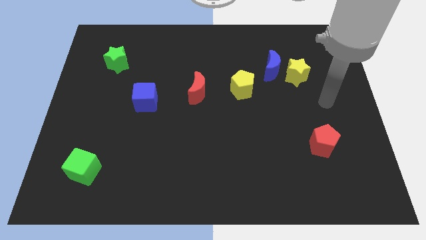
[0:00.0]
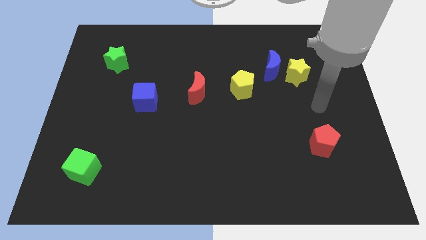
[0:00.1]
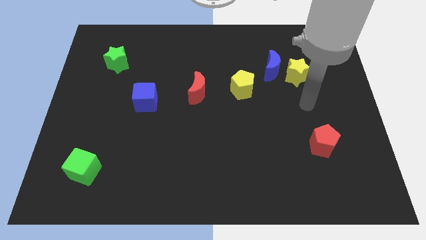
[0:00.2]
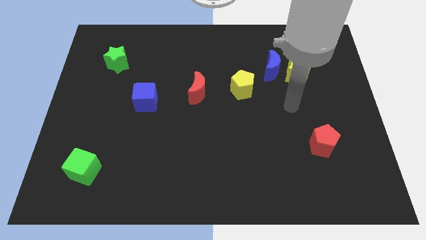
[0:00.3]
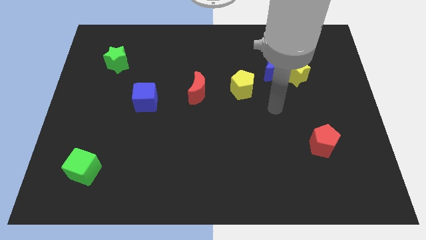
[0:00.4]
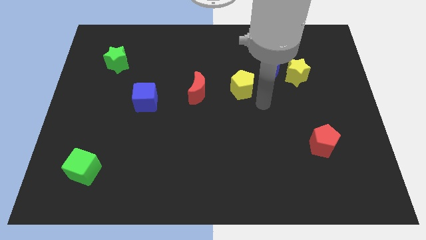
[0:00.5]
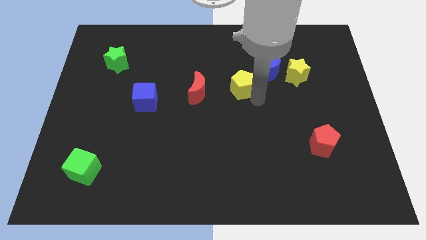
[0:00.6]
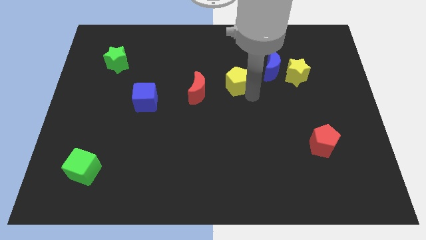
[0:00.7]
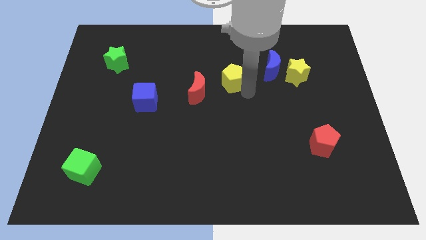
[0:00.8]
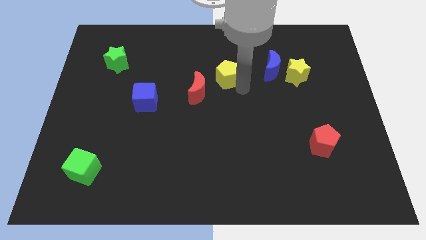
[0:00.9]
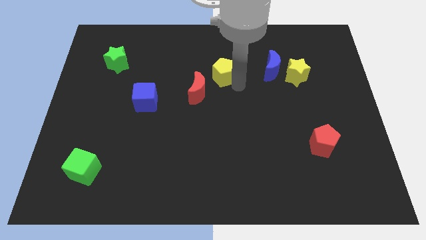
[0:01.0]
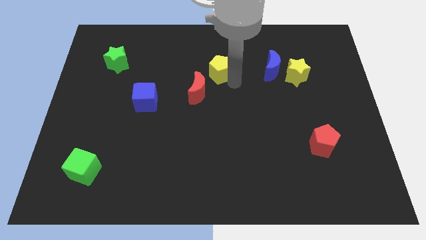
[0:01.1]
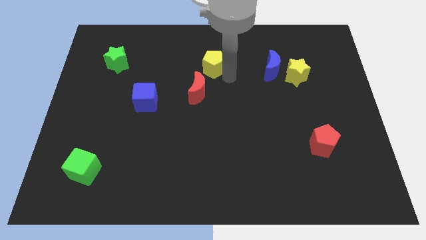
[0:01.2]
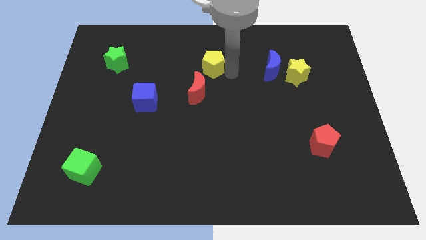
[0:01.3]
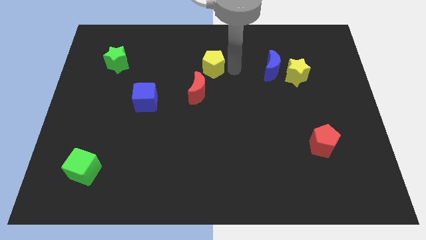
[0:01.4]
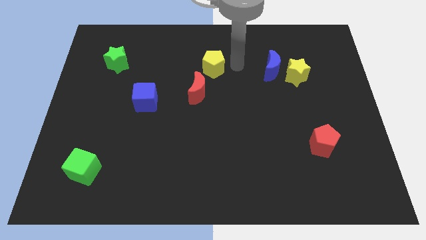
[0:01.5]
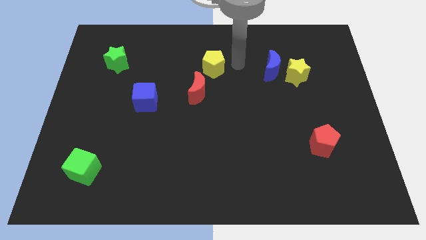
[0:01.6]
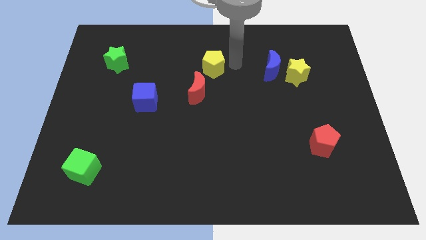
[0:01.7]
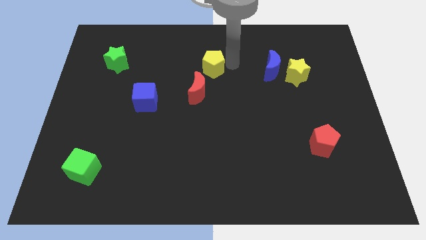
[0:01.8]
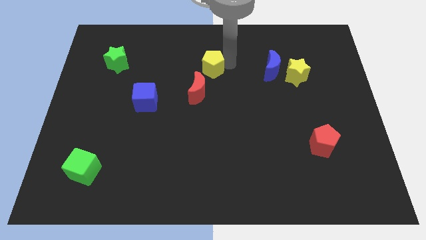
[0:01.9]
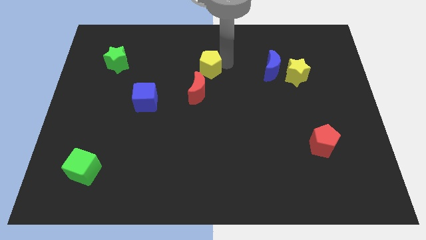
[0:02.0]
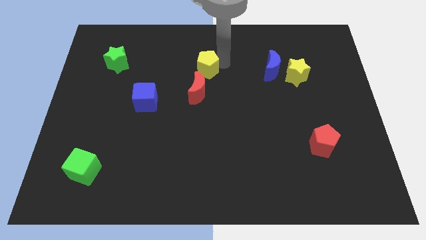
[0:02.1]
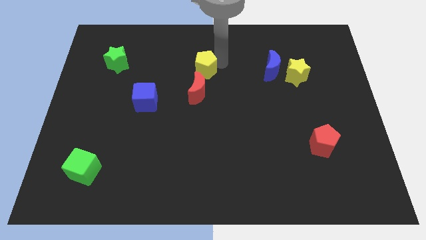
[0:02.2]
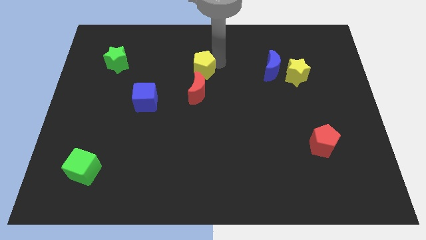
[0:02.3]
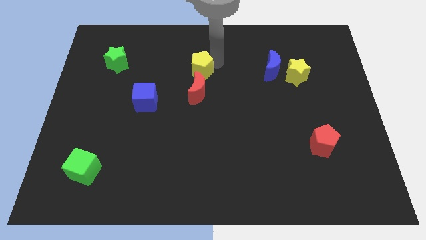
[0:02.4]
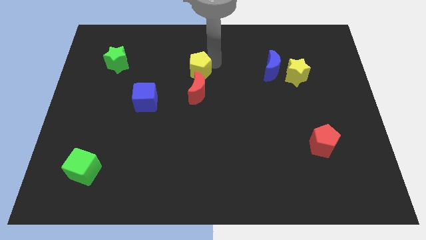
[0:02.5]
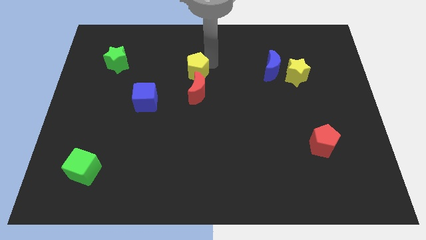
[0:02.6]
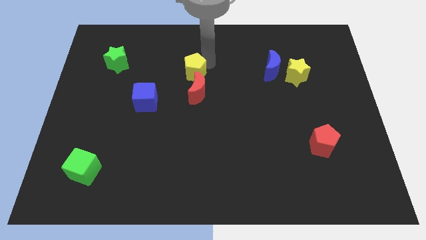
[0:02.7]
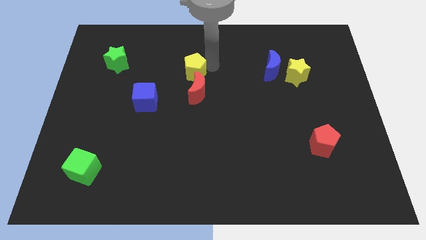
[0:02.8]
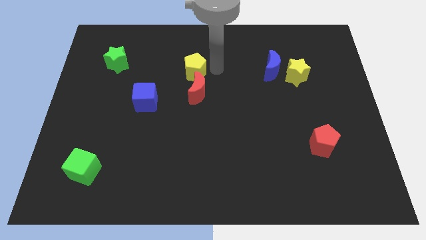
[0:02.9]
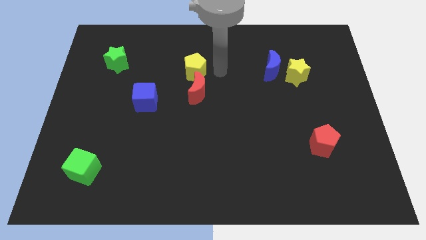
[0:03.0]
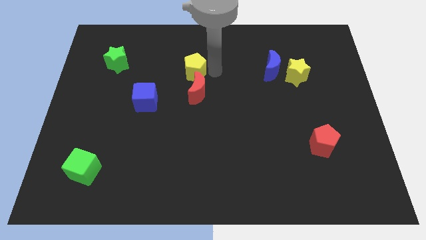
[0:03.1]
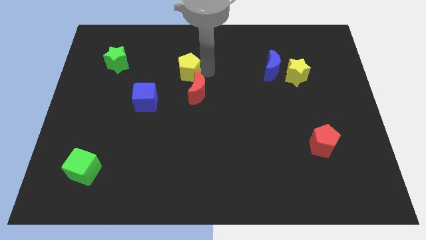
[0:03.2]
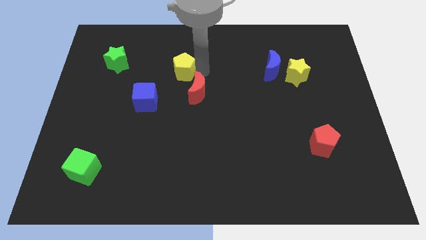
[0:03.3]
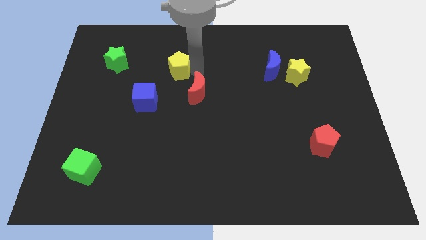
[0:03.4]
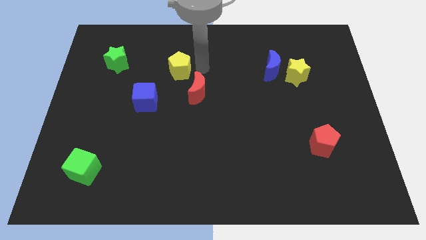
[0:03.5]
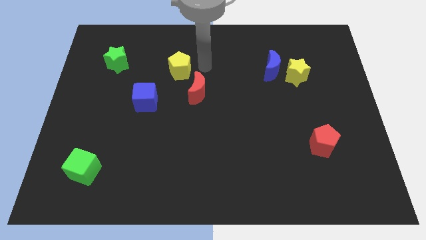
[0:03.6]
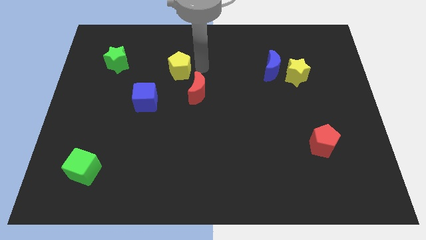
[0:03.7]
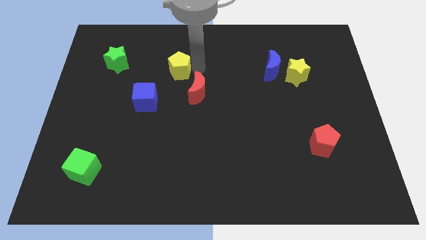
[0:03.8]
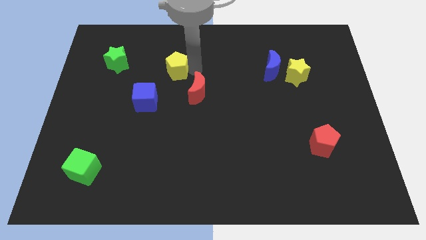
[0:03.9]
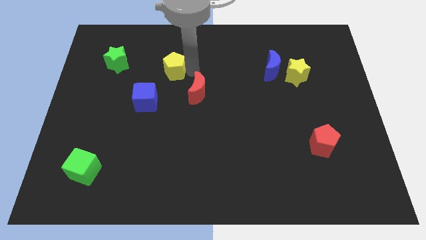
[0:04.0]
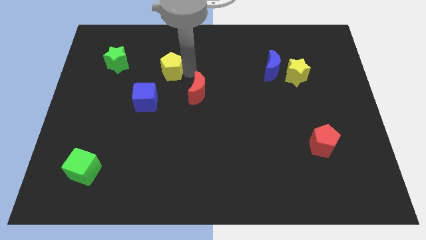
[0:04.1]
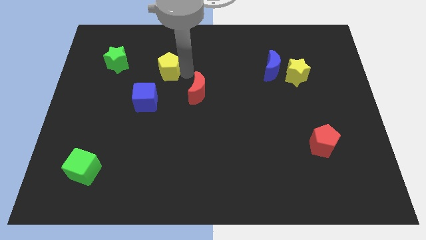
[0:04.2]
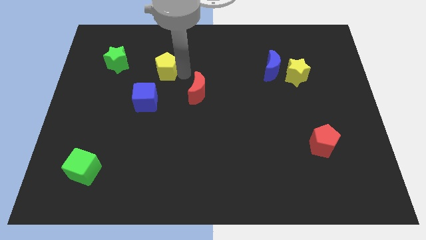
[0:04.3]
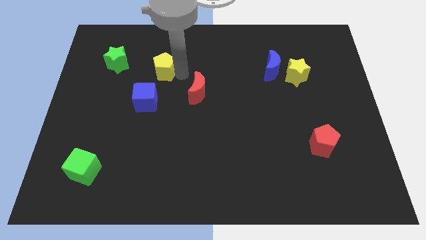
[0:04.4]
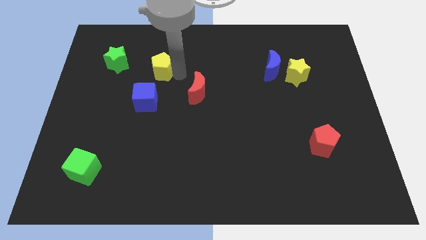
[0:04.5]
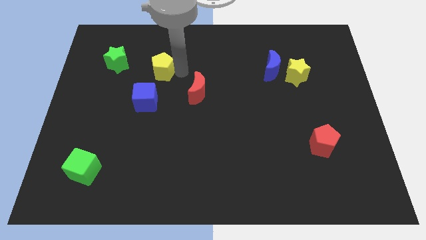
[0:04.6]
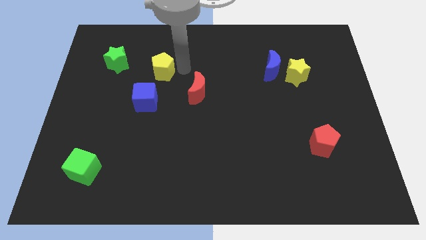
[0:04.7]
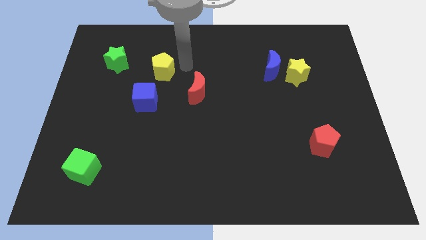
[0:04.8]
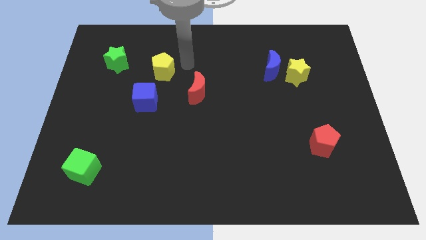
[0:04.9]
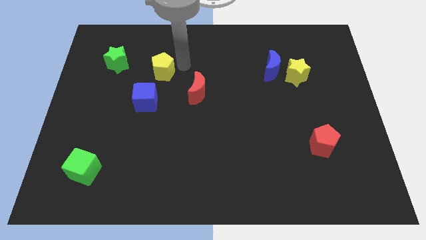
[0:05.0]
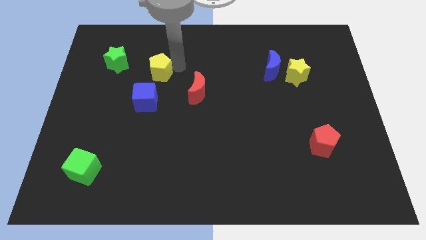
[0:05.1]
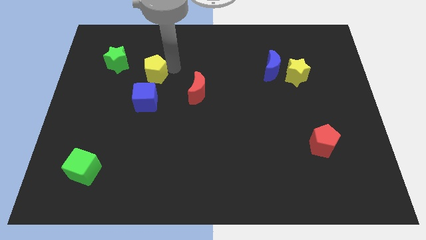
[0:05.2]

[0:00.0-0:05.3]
slide the yellow pentagon left

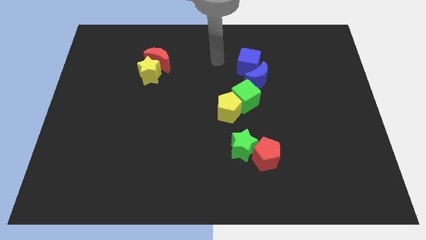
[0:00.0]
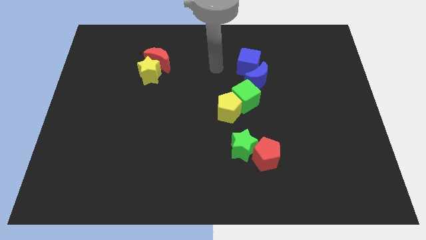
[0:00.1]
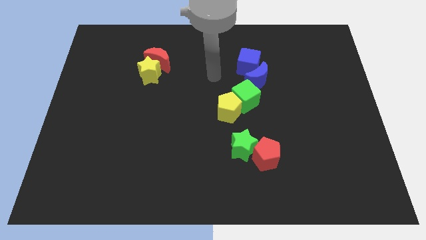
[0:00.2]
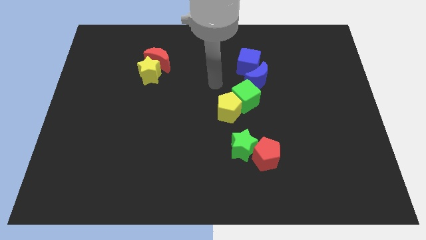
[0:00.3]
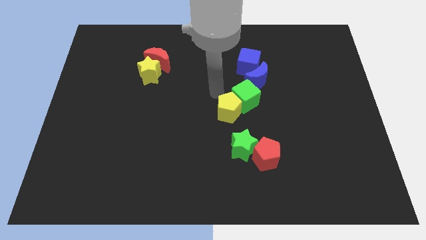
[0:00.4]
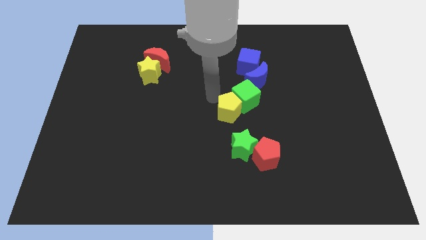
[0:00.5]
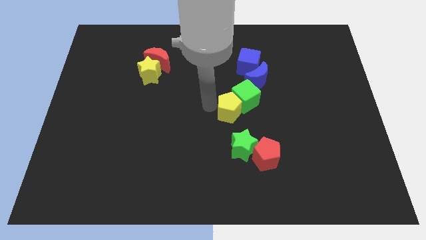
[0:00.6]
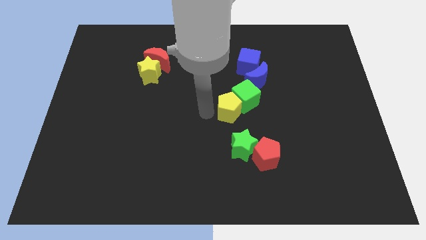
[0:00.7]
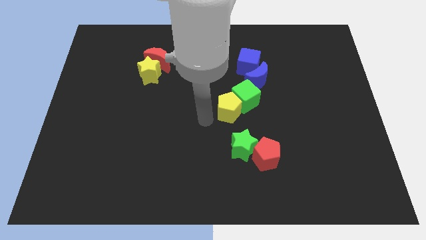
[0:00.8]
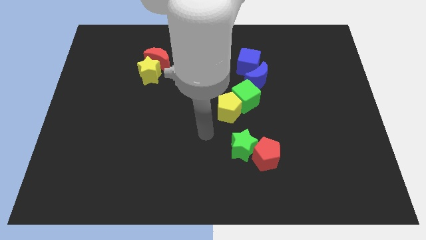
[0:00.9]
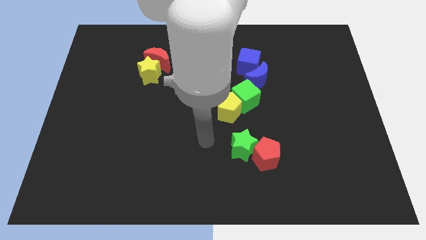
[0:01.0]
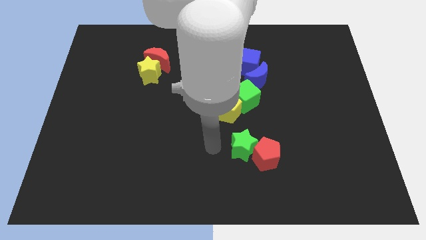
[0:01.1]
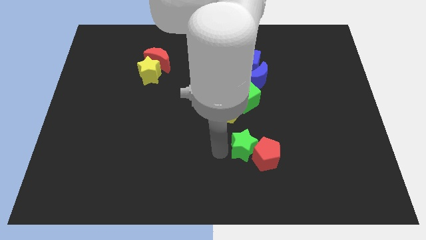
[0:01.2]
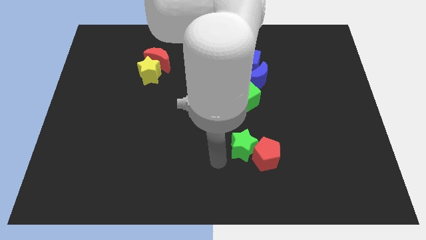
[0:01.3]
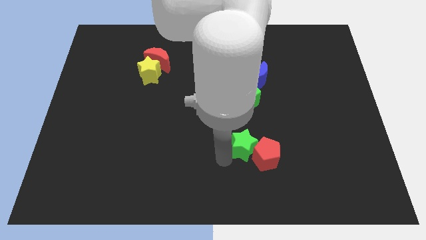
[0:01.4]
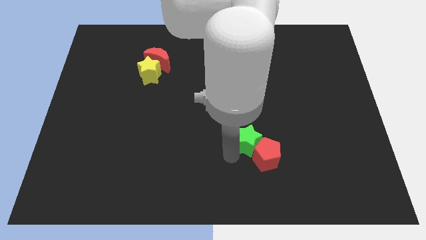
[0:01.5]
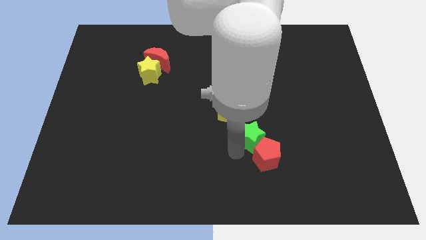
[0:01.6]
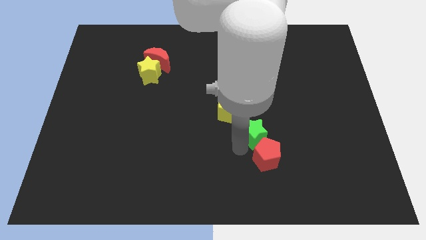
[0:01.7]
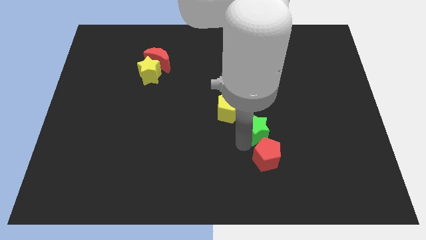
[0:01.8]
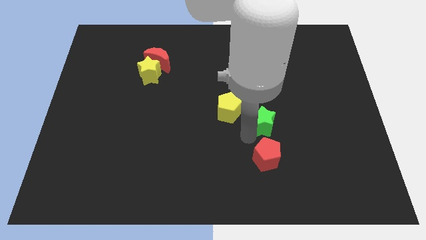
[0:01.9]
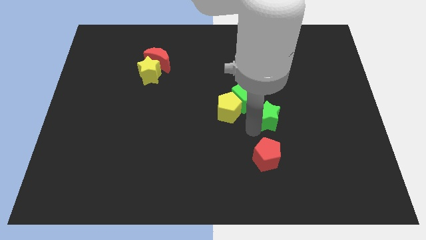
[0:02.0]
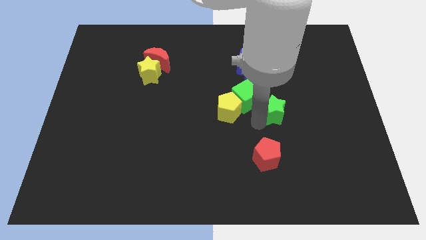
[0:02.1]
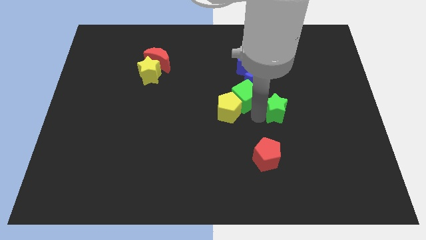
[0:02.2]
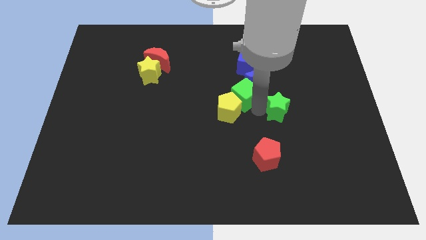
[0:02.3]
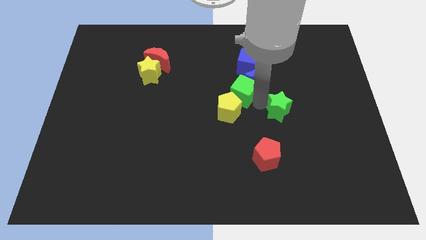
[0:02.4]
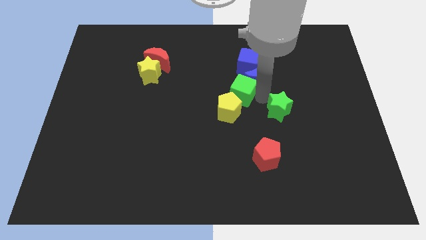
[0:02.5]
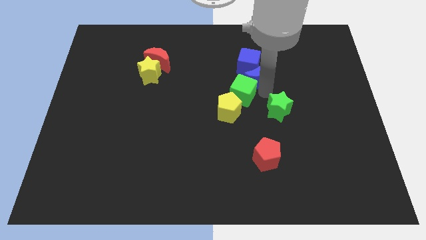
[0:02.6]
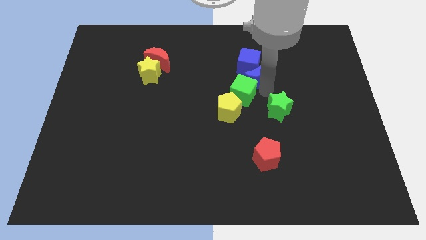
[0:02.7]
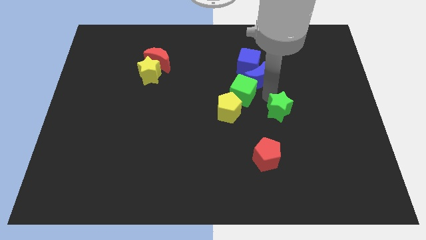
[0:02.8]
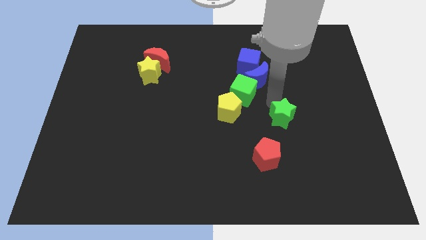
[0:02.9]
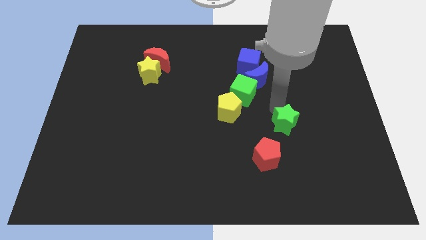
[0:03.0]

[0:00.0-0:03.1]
slightly push the green star right
